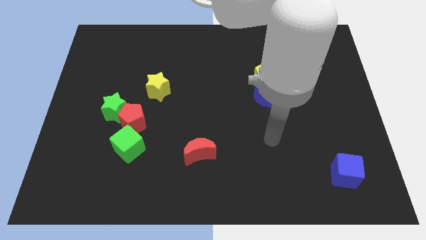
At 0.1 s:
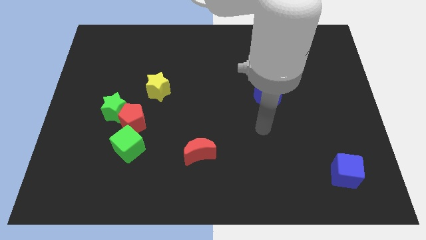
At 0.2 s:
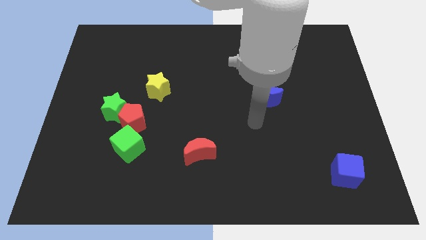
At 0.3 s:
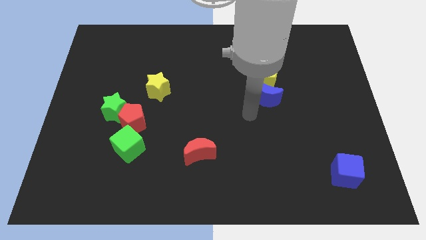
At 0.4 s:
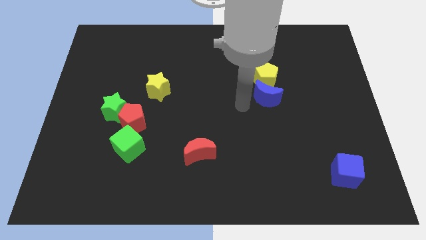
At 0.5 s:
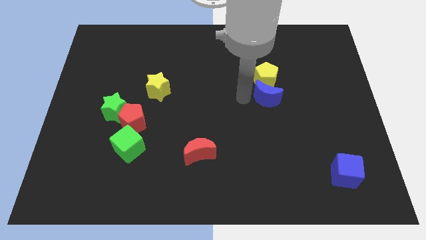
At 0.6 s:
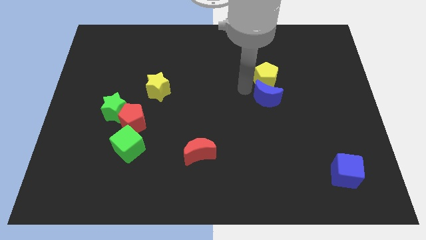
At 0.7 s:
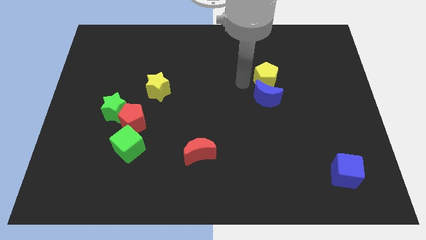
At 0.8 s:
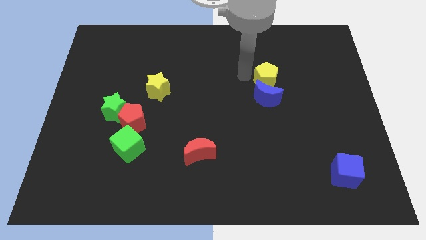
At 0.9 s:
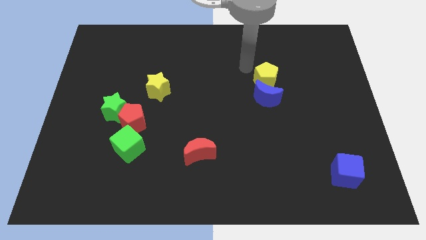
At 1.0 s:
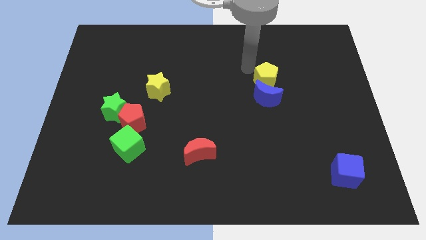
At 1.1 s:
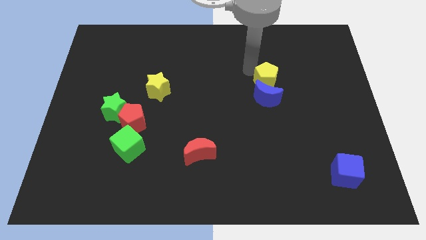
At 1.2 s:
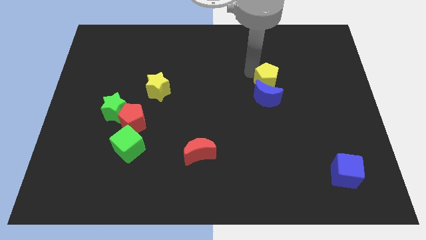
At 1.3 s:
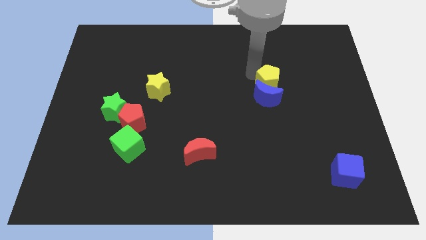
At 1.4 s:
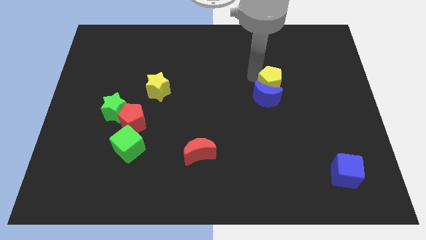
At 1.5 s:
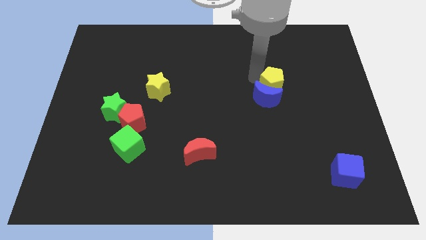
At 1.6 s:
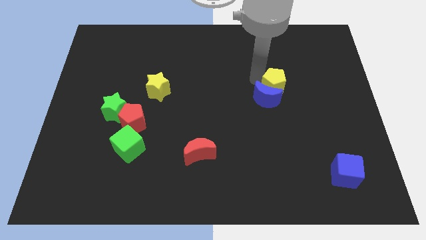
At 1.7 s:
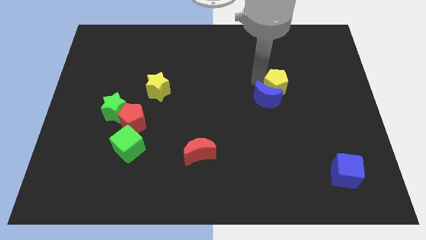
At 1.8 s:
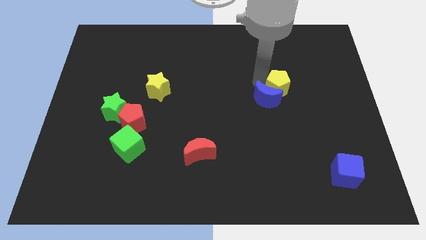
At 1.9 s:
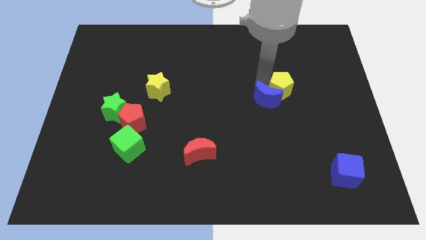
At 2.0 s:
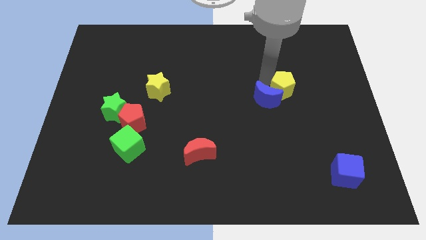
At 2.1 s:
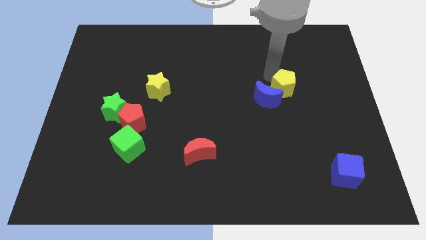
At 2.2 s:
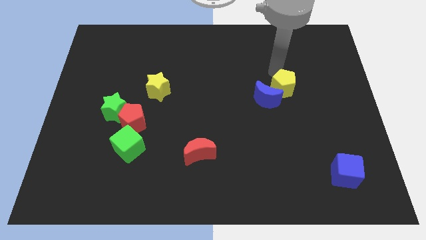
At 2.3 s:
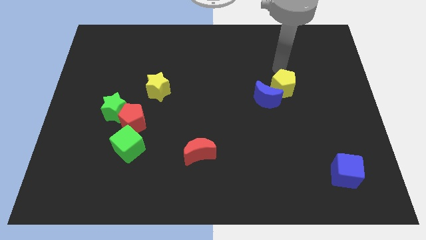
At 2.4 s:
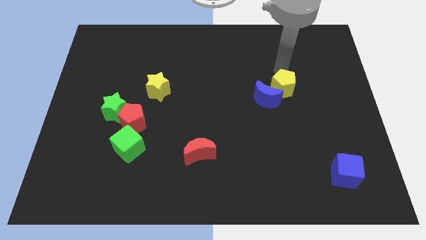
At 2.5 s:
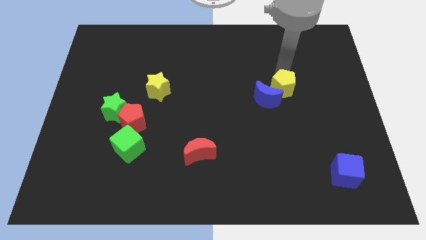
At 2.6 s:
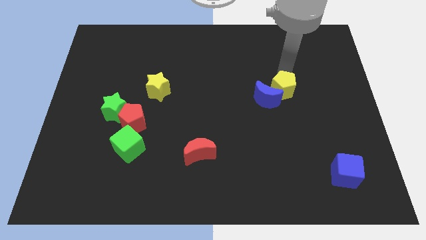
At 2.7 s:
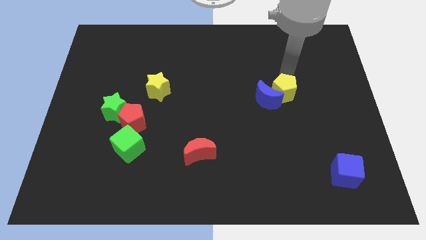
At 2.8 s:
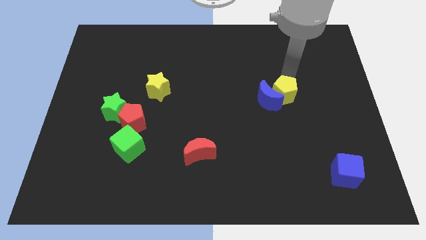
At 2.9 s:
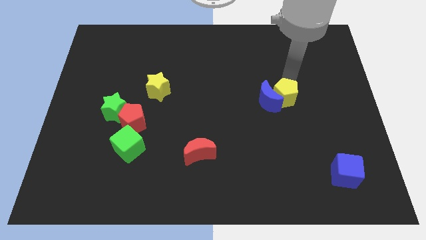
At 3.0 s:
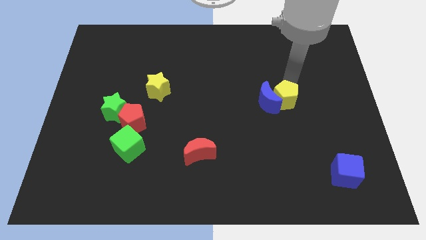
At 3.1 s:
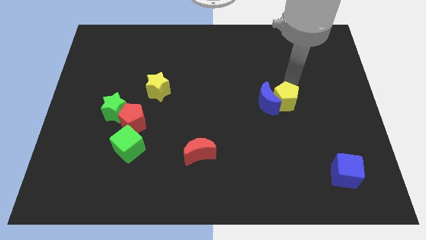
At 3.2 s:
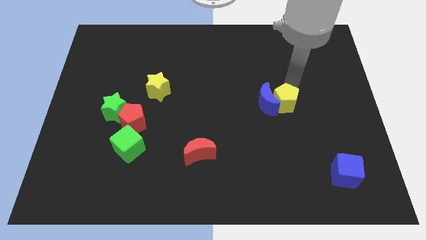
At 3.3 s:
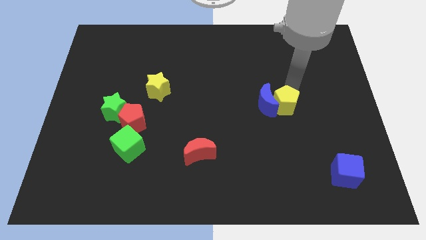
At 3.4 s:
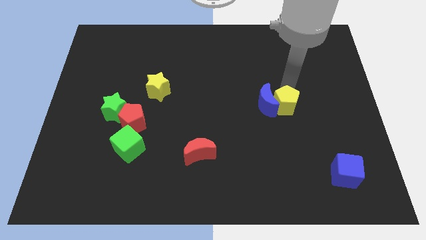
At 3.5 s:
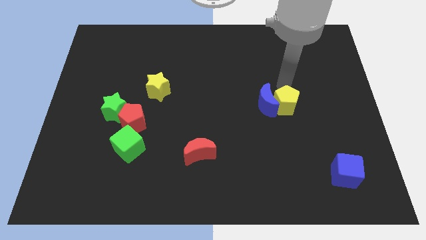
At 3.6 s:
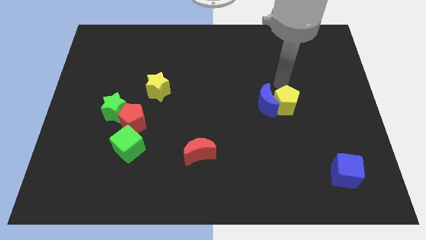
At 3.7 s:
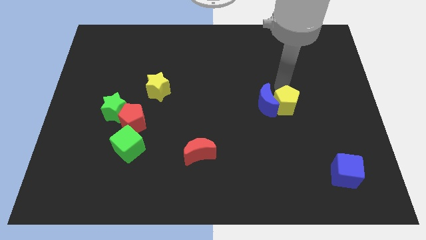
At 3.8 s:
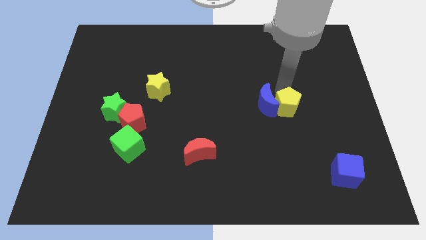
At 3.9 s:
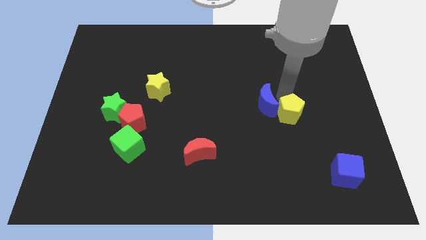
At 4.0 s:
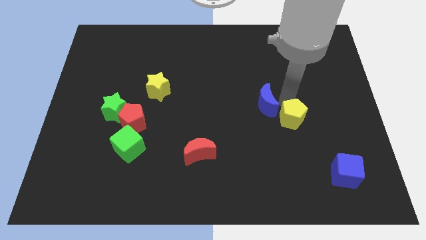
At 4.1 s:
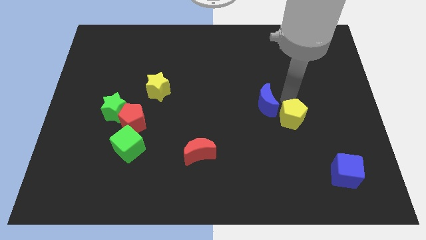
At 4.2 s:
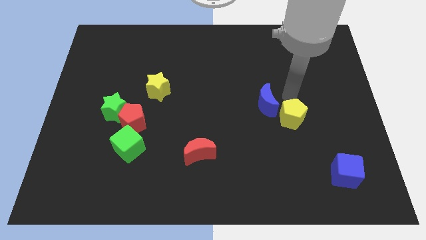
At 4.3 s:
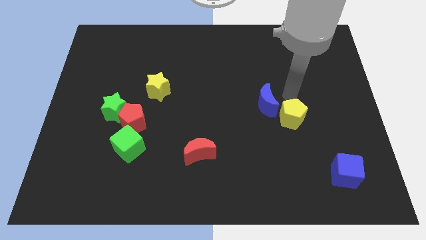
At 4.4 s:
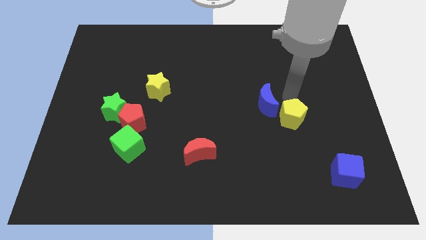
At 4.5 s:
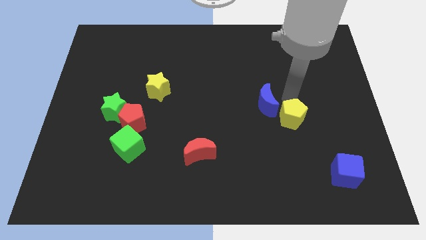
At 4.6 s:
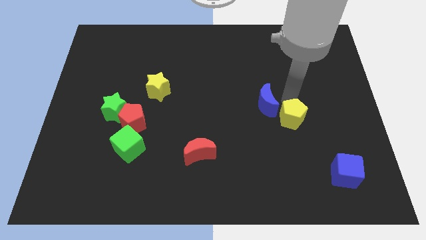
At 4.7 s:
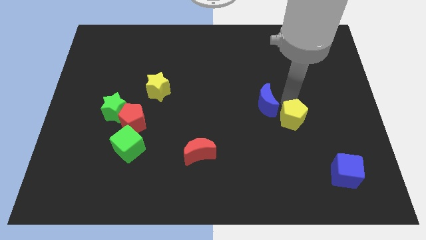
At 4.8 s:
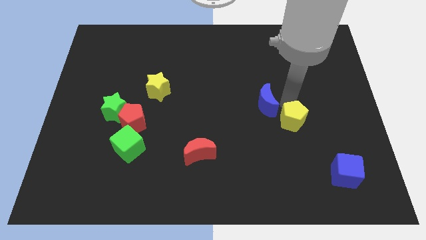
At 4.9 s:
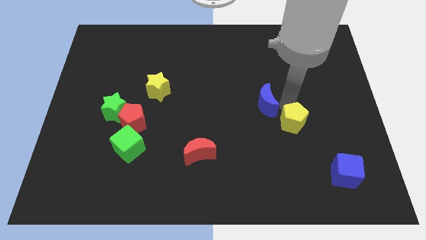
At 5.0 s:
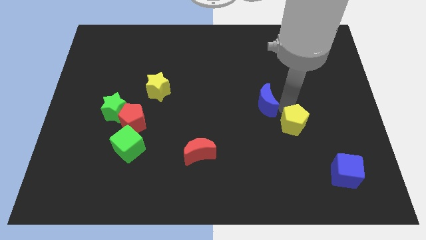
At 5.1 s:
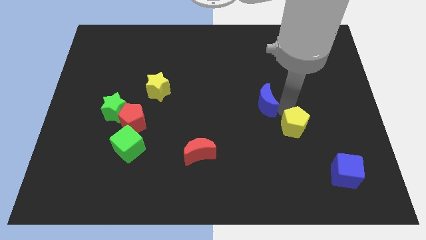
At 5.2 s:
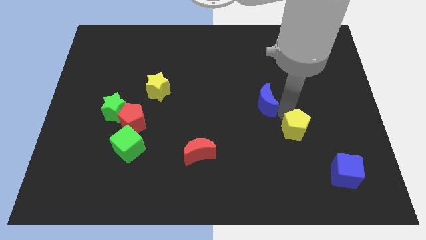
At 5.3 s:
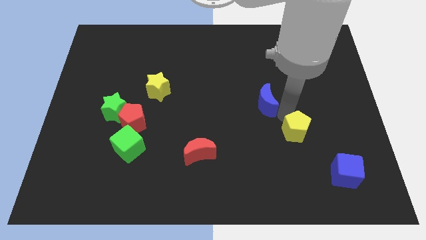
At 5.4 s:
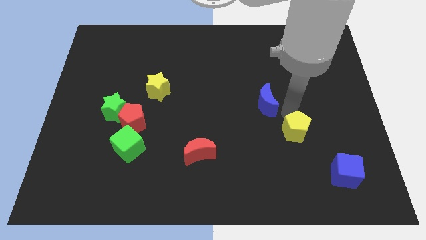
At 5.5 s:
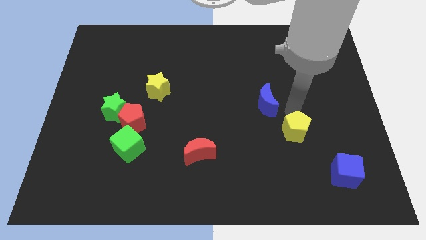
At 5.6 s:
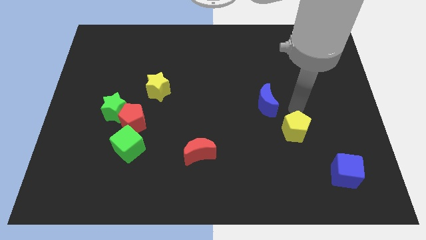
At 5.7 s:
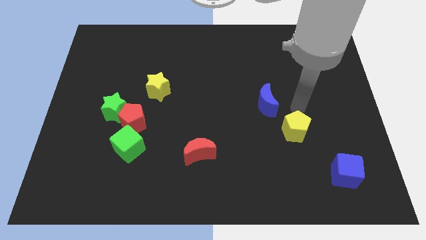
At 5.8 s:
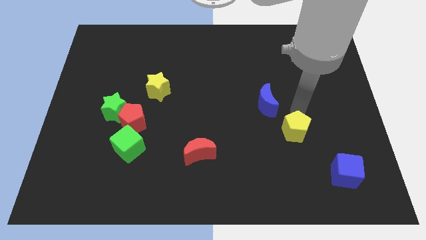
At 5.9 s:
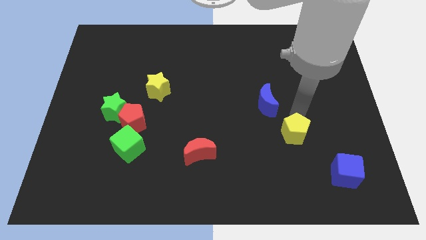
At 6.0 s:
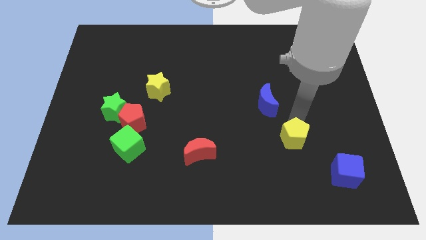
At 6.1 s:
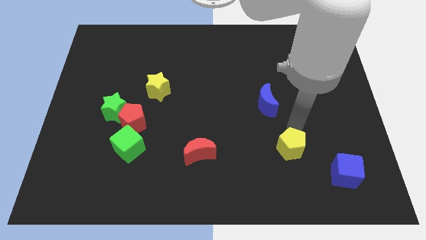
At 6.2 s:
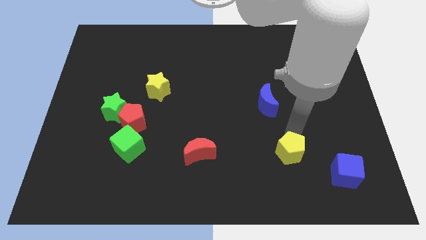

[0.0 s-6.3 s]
move the yellow pentagon to the left of the blue cube
